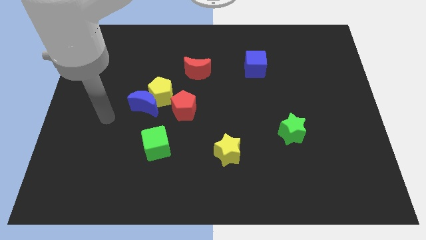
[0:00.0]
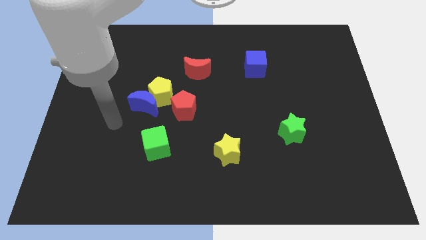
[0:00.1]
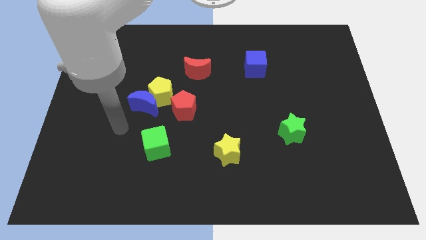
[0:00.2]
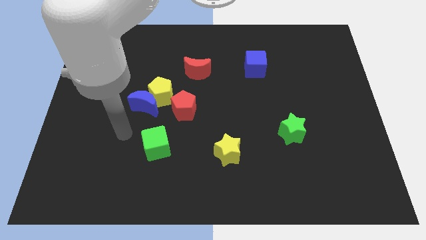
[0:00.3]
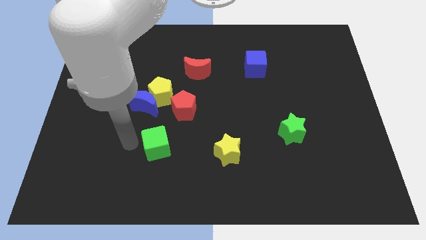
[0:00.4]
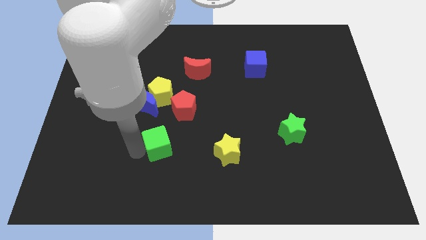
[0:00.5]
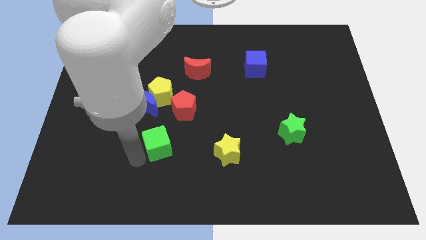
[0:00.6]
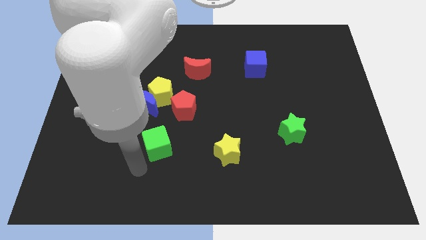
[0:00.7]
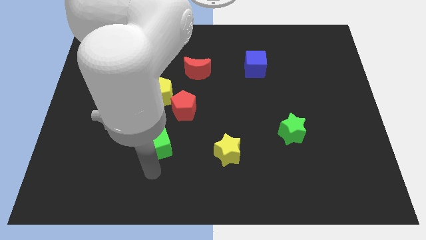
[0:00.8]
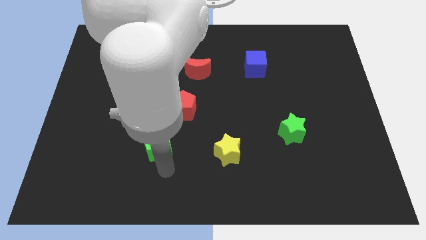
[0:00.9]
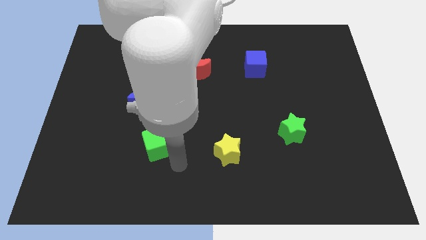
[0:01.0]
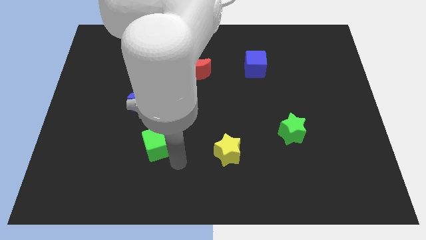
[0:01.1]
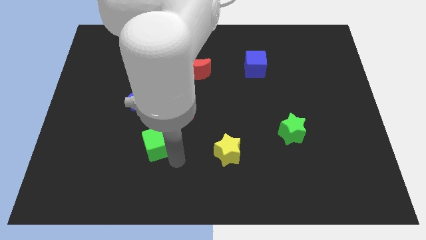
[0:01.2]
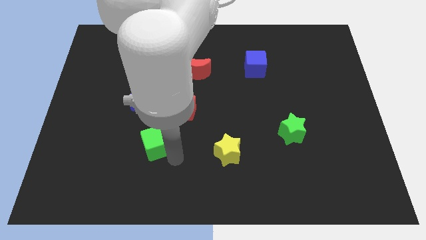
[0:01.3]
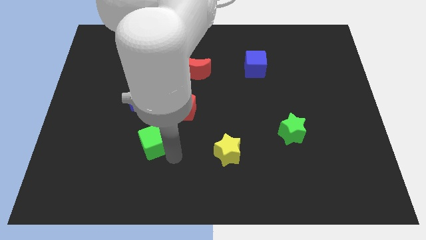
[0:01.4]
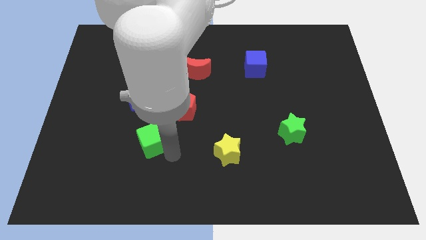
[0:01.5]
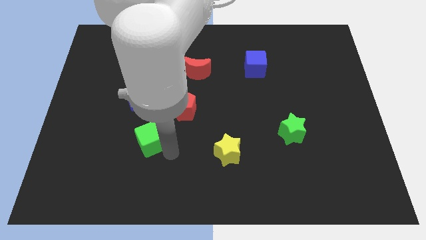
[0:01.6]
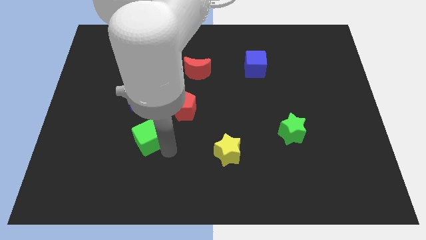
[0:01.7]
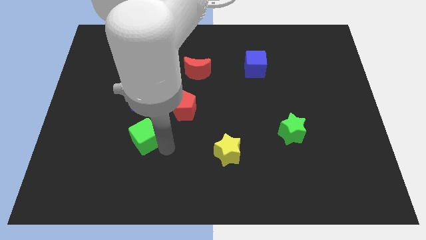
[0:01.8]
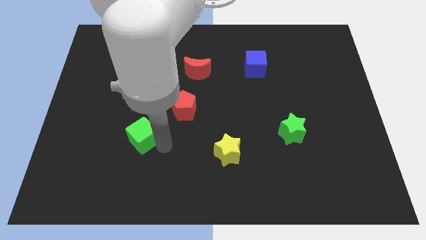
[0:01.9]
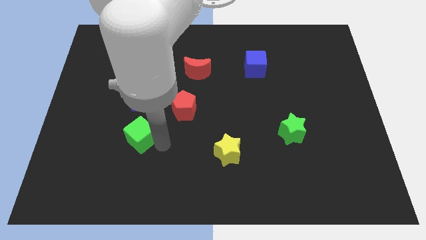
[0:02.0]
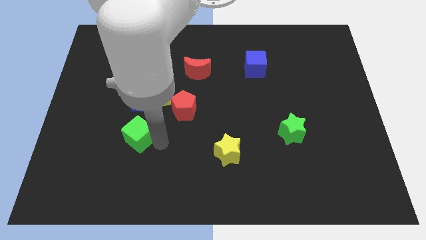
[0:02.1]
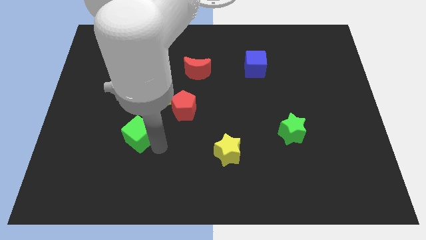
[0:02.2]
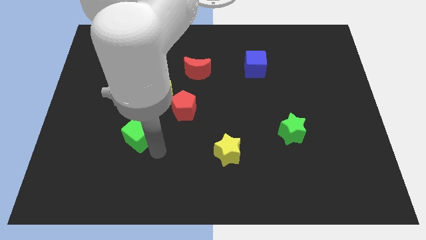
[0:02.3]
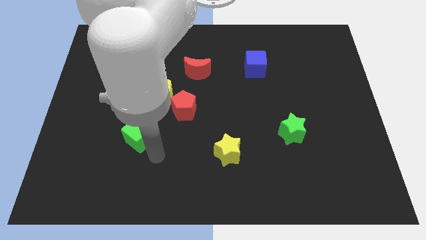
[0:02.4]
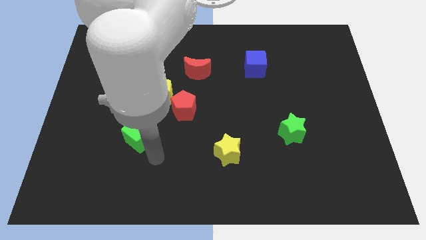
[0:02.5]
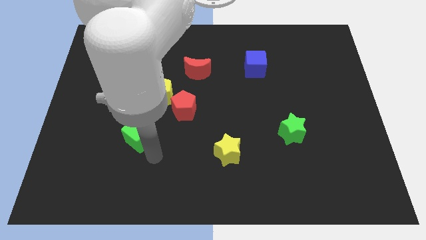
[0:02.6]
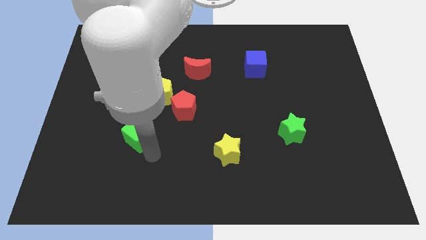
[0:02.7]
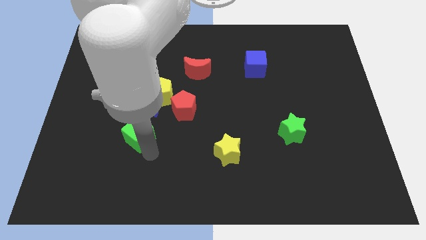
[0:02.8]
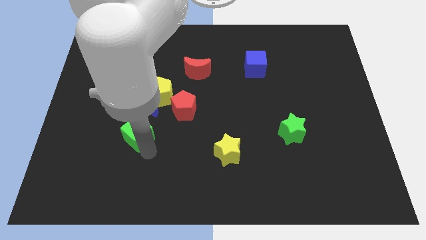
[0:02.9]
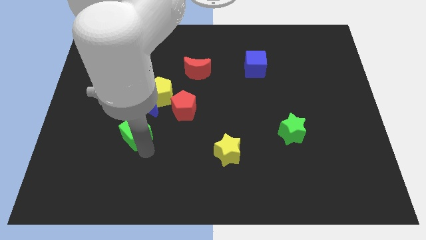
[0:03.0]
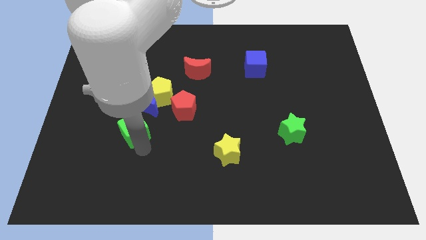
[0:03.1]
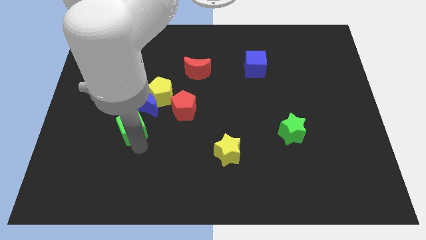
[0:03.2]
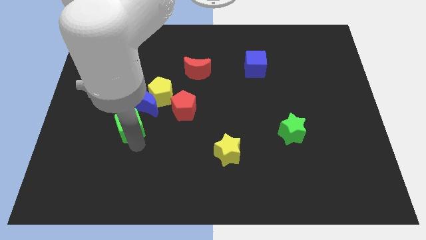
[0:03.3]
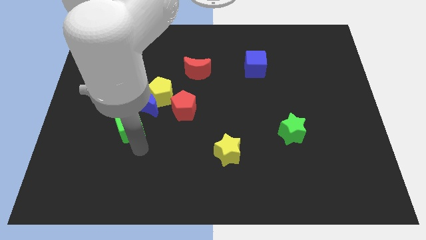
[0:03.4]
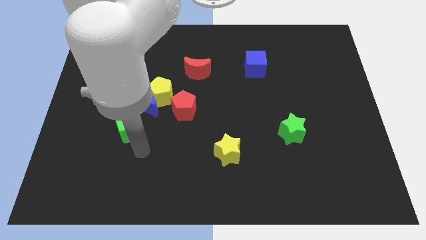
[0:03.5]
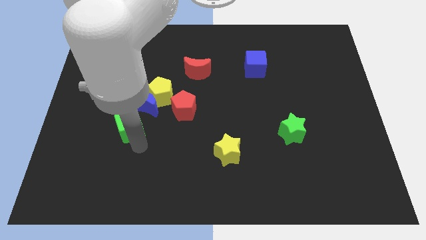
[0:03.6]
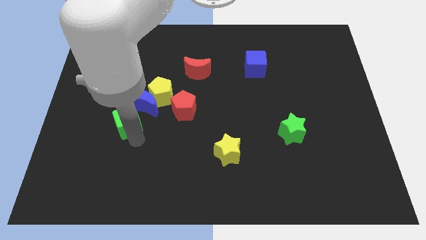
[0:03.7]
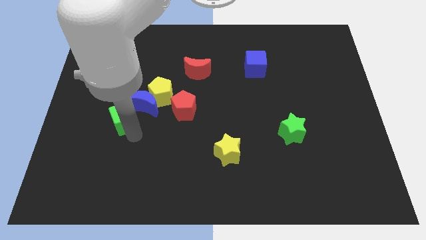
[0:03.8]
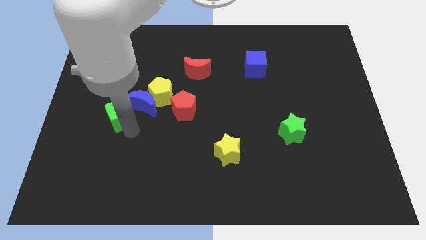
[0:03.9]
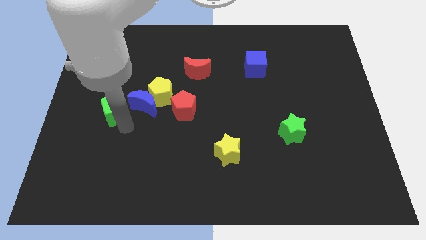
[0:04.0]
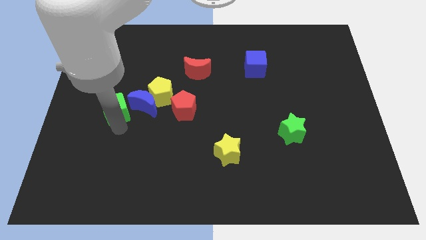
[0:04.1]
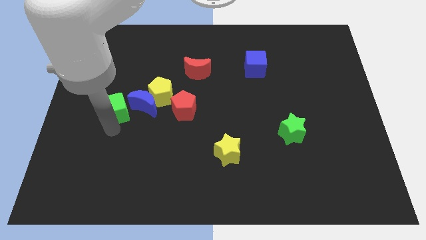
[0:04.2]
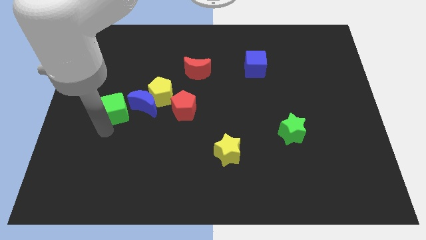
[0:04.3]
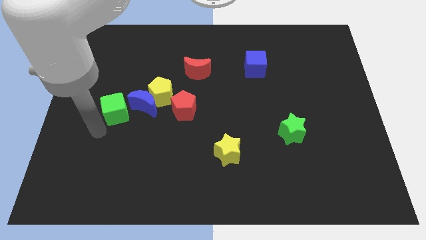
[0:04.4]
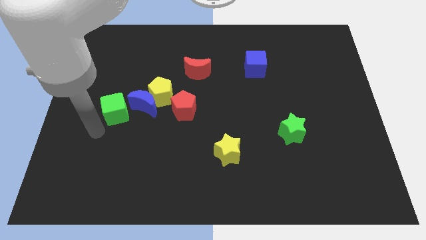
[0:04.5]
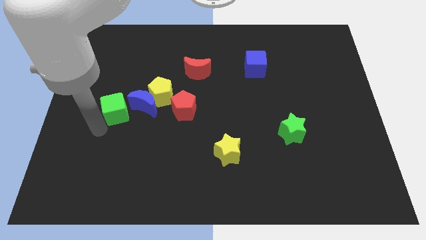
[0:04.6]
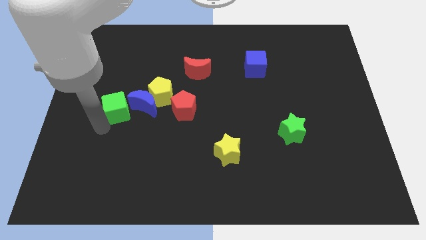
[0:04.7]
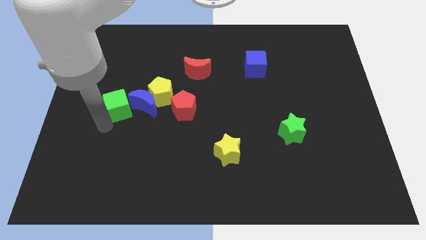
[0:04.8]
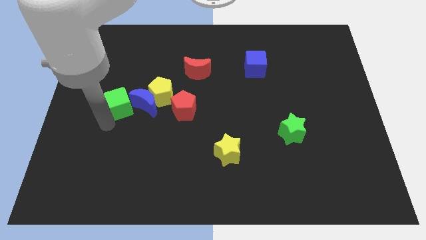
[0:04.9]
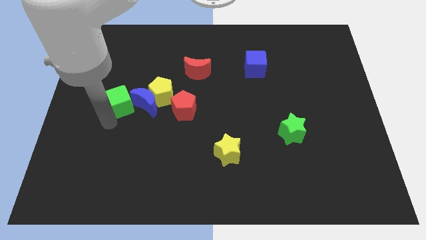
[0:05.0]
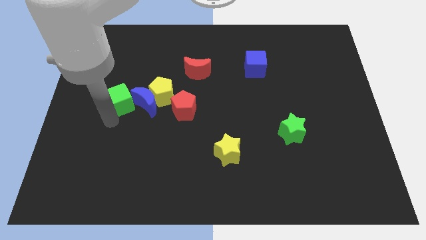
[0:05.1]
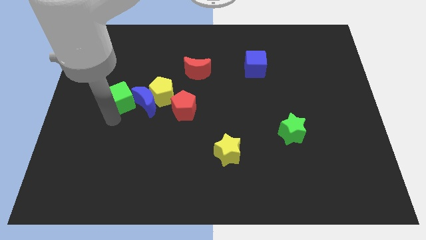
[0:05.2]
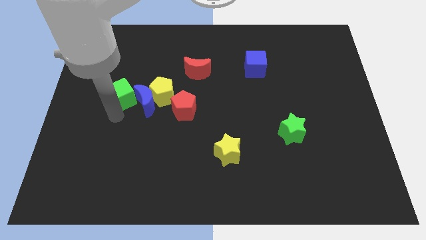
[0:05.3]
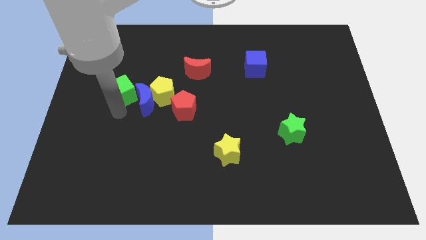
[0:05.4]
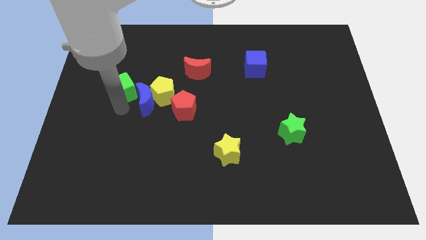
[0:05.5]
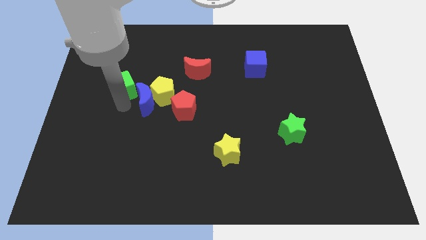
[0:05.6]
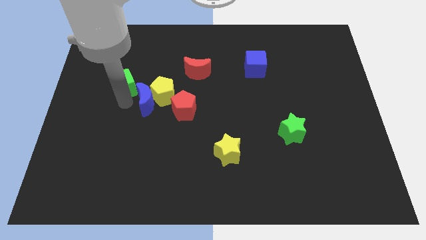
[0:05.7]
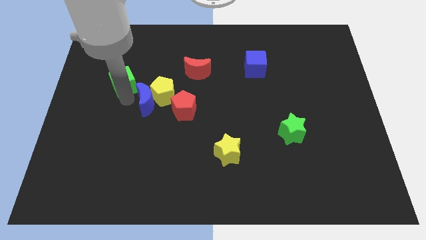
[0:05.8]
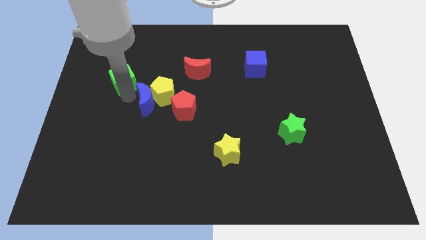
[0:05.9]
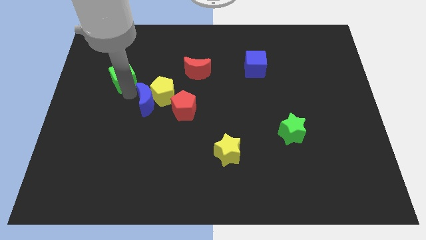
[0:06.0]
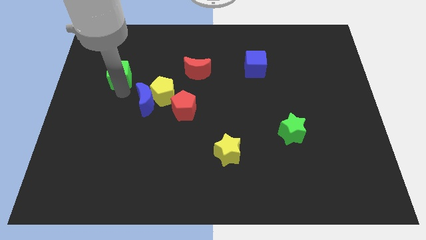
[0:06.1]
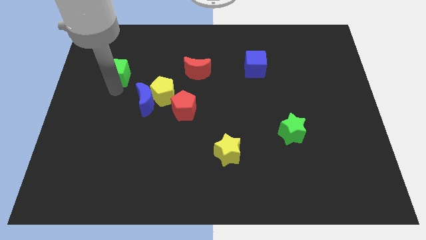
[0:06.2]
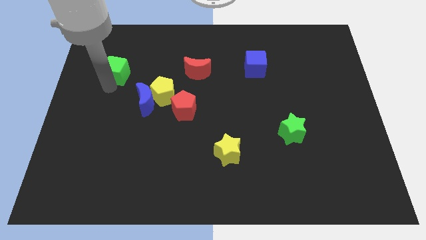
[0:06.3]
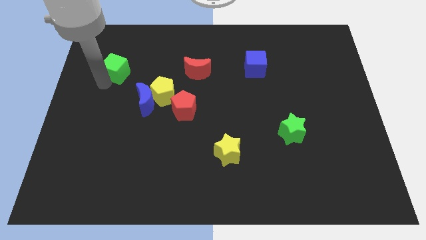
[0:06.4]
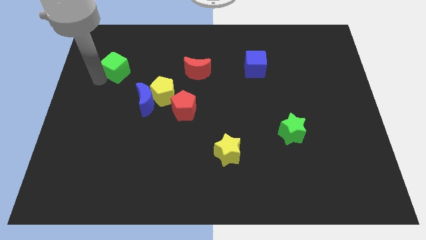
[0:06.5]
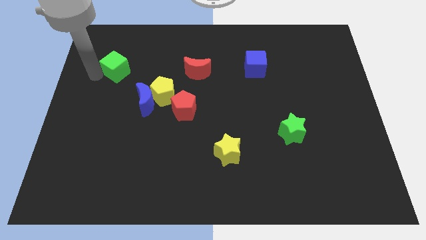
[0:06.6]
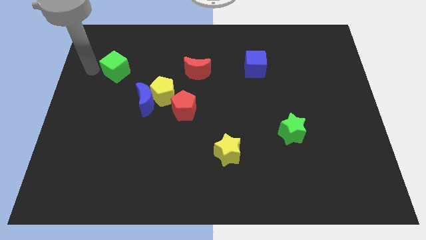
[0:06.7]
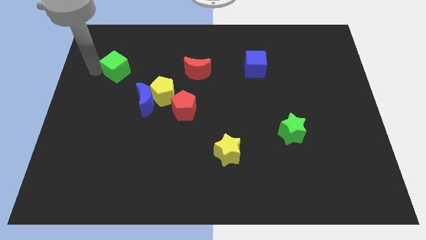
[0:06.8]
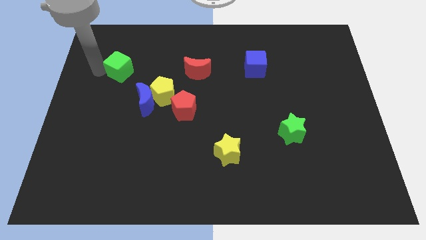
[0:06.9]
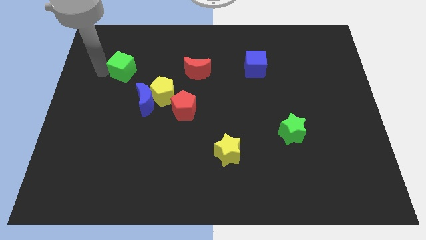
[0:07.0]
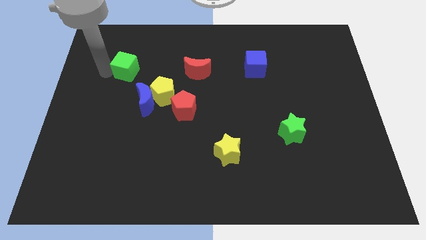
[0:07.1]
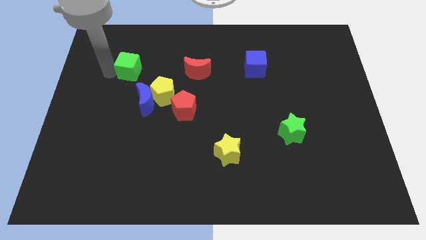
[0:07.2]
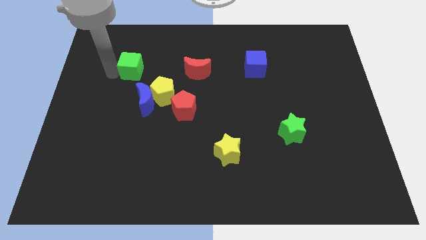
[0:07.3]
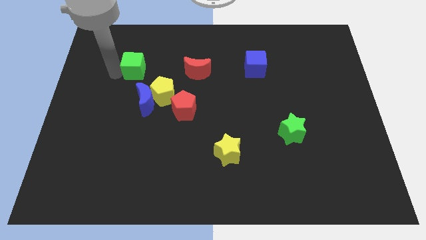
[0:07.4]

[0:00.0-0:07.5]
put the green cube left of the red moon

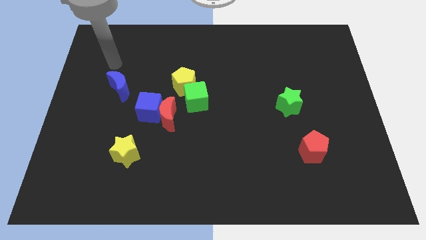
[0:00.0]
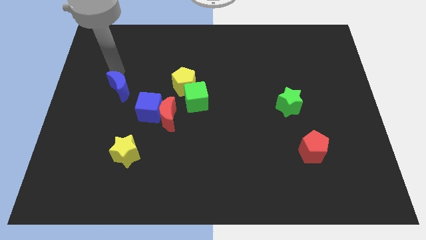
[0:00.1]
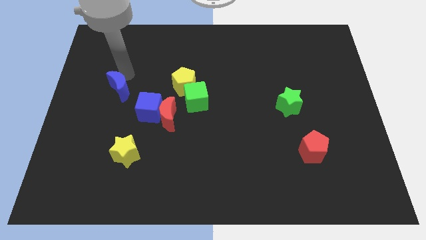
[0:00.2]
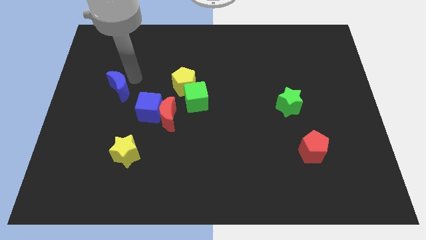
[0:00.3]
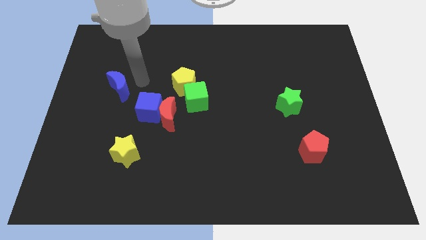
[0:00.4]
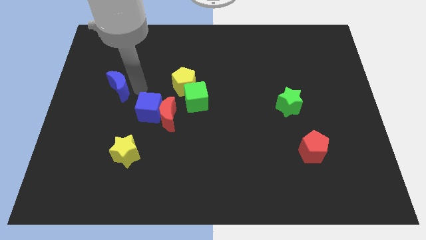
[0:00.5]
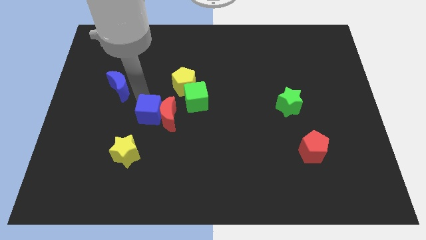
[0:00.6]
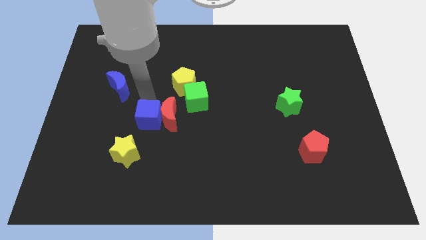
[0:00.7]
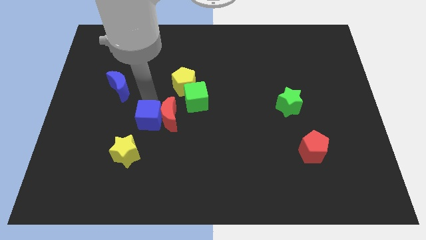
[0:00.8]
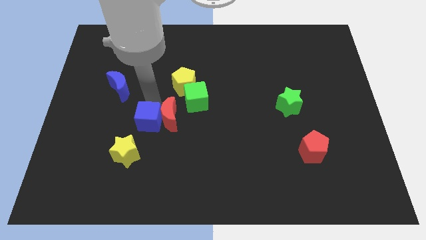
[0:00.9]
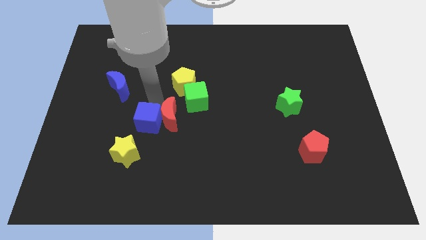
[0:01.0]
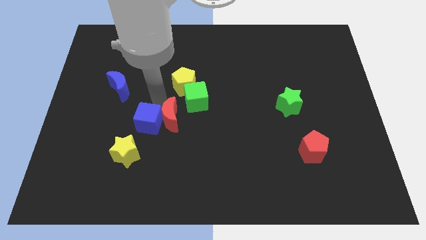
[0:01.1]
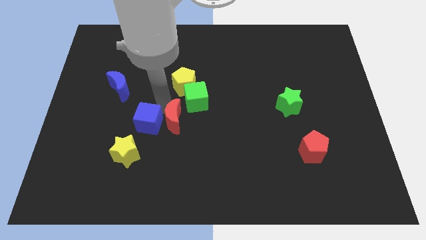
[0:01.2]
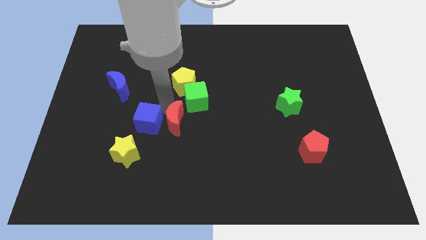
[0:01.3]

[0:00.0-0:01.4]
move the red moon below the green cube
